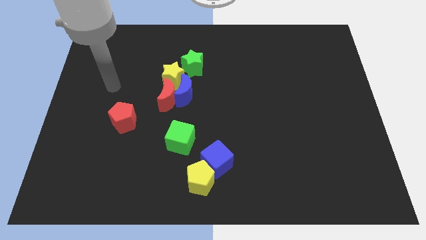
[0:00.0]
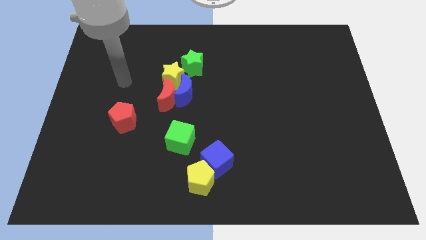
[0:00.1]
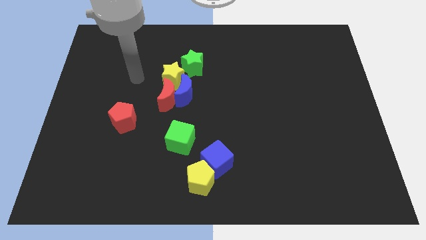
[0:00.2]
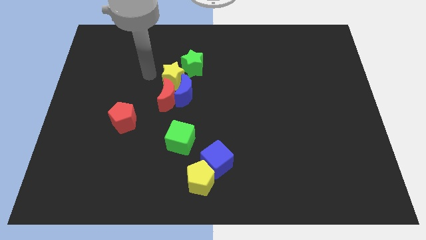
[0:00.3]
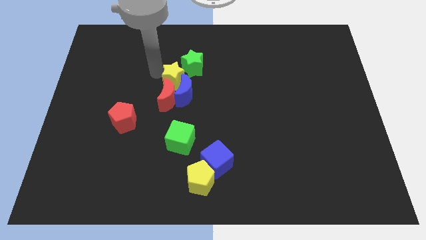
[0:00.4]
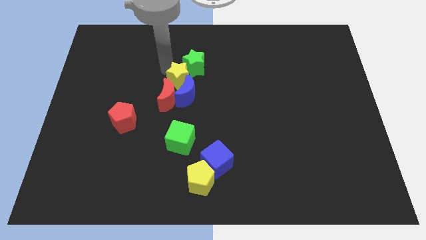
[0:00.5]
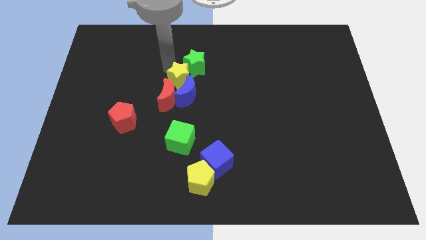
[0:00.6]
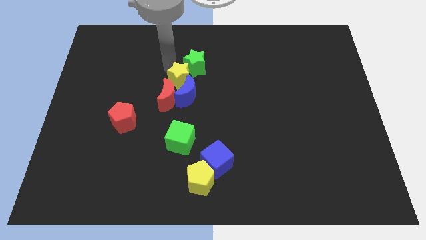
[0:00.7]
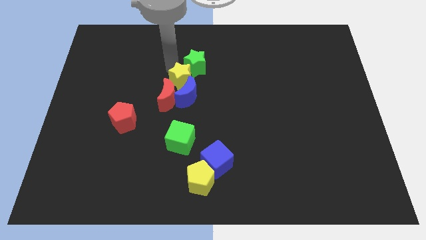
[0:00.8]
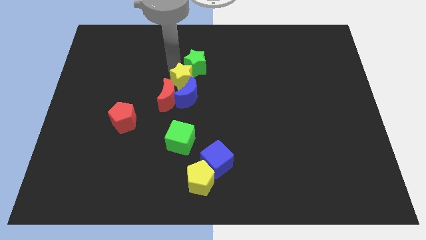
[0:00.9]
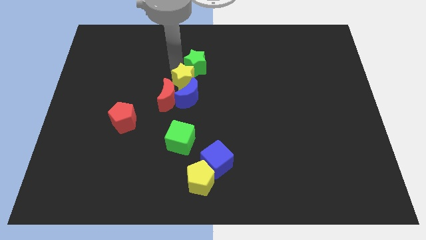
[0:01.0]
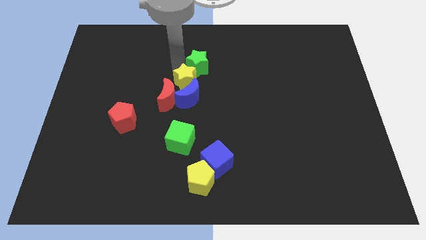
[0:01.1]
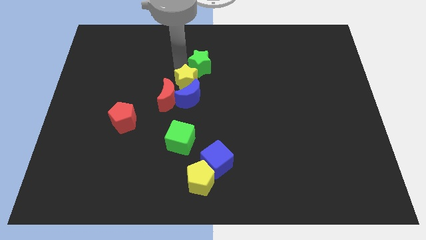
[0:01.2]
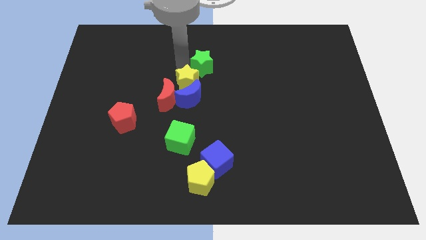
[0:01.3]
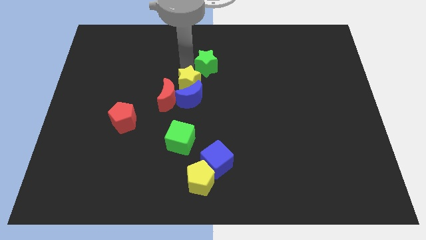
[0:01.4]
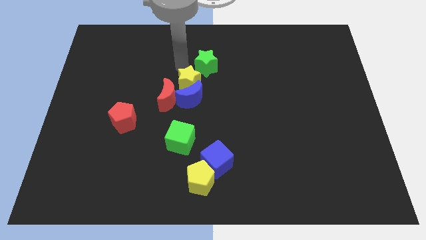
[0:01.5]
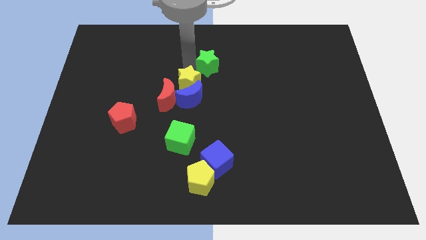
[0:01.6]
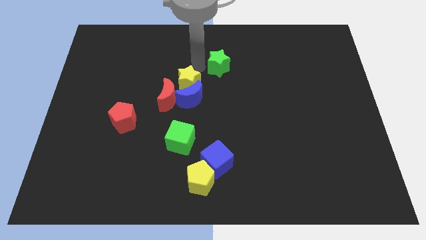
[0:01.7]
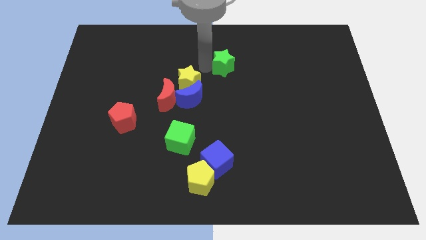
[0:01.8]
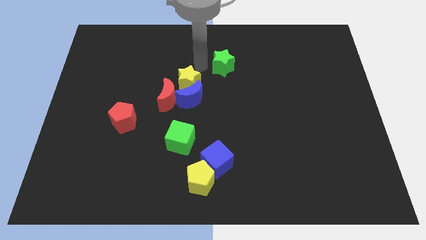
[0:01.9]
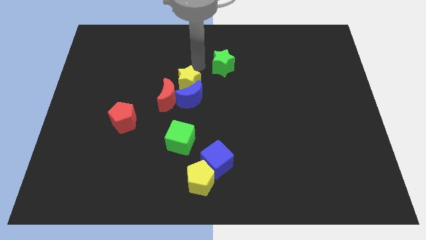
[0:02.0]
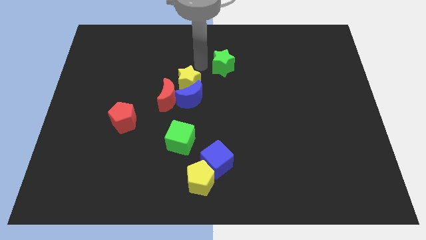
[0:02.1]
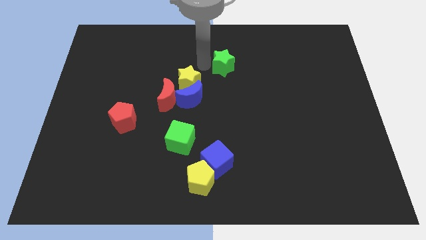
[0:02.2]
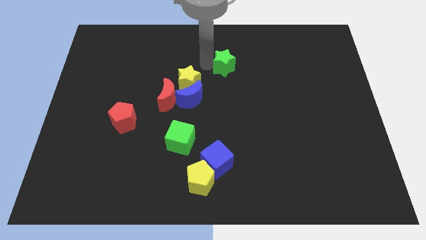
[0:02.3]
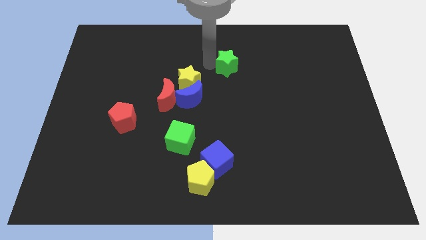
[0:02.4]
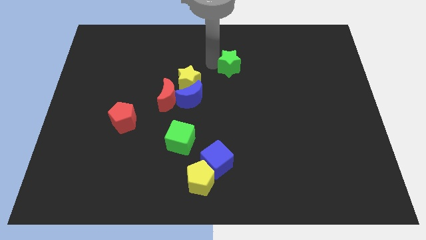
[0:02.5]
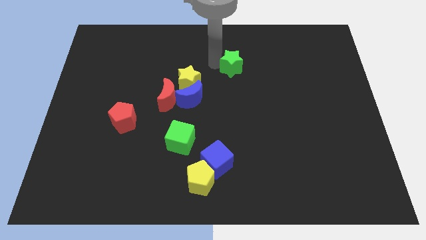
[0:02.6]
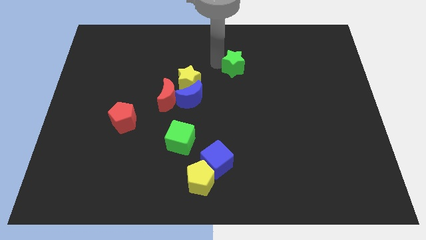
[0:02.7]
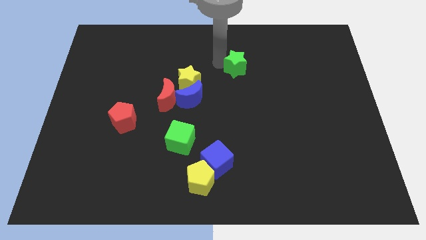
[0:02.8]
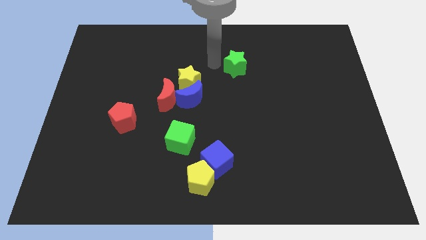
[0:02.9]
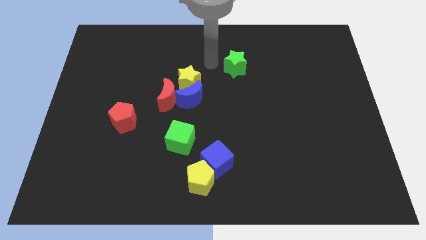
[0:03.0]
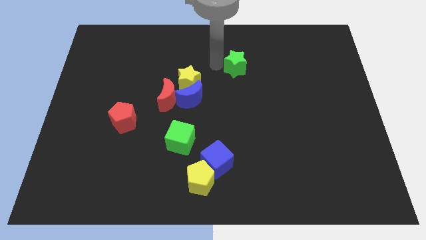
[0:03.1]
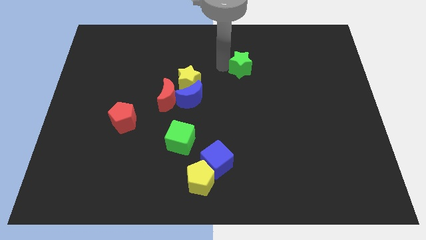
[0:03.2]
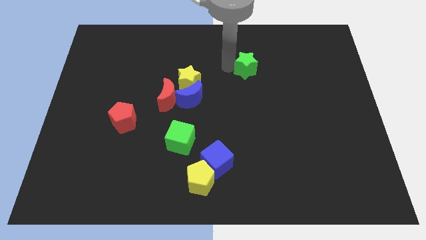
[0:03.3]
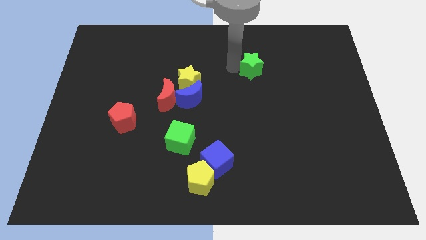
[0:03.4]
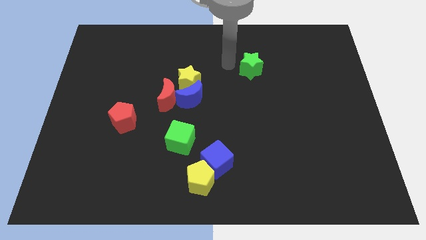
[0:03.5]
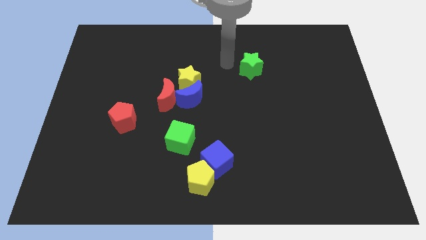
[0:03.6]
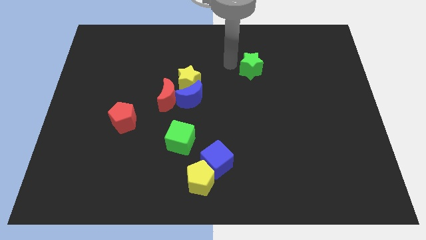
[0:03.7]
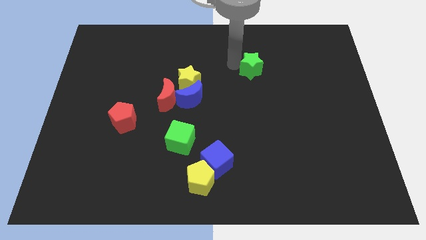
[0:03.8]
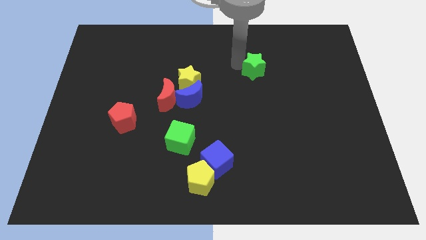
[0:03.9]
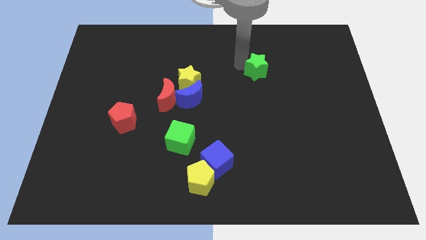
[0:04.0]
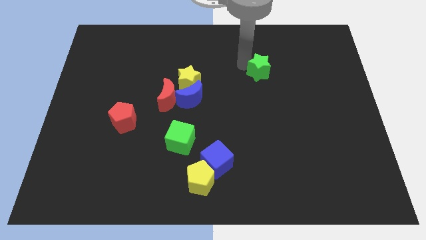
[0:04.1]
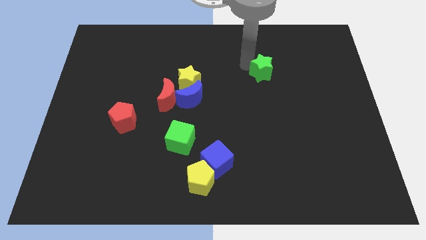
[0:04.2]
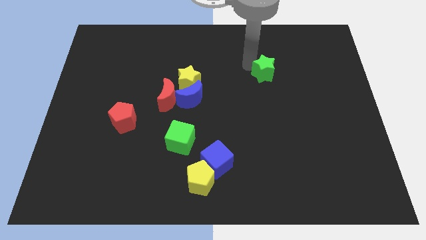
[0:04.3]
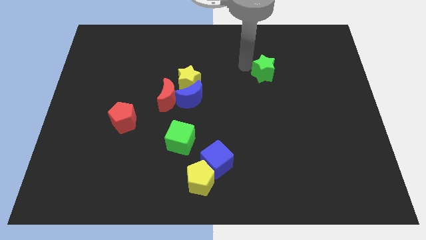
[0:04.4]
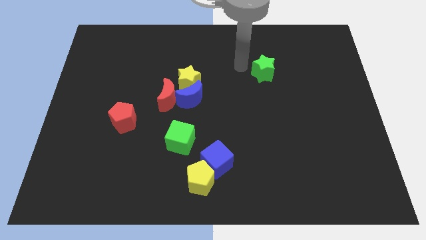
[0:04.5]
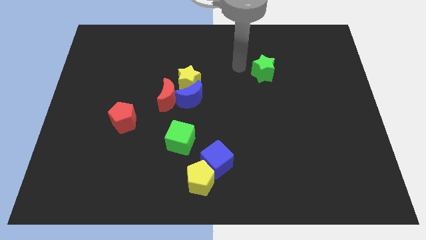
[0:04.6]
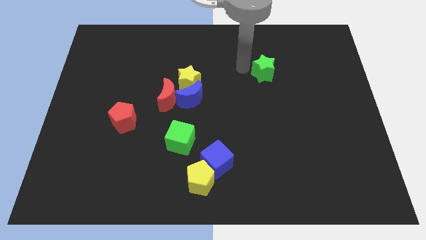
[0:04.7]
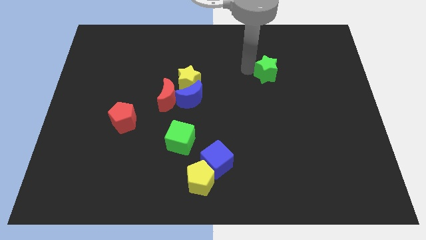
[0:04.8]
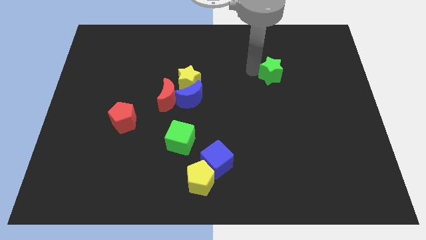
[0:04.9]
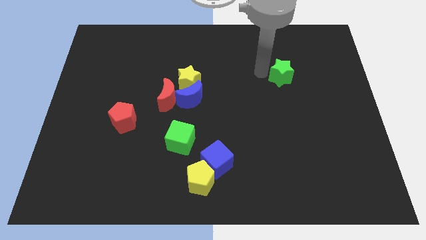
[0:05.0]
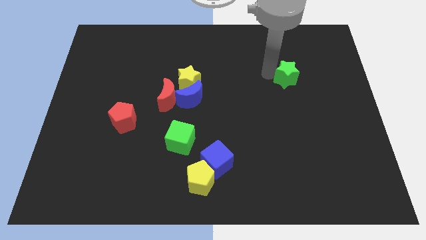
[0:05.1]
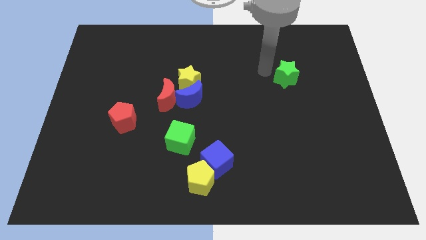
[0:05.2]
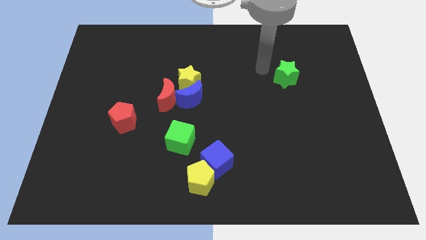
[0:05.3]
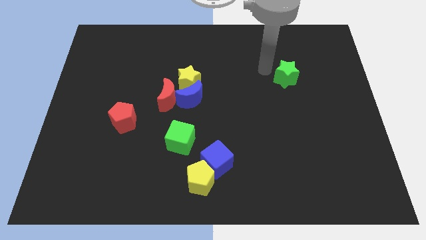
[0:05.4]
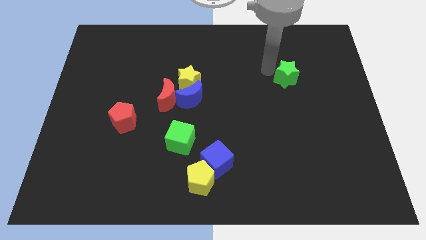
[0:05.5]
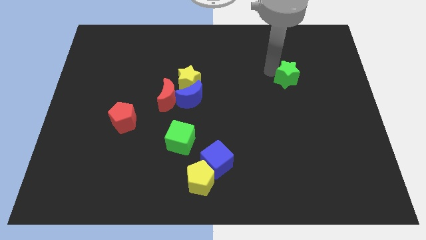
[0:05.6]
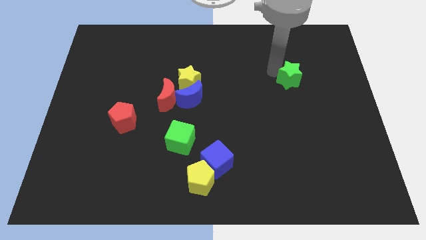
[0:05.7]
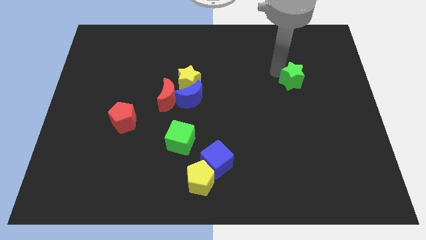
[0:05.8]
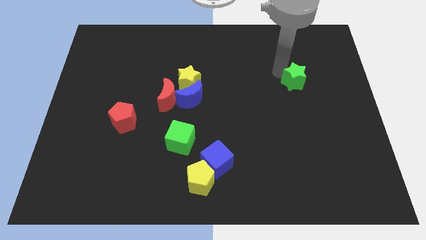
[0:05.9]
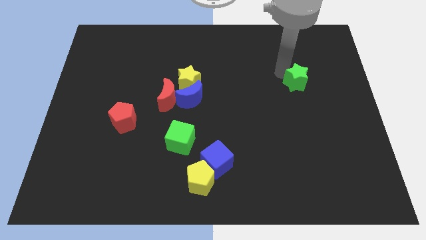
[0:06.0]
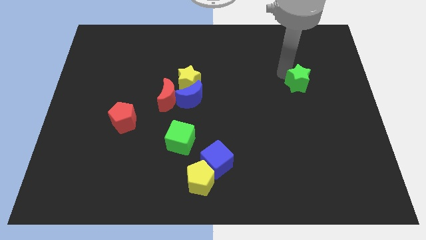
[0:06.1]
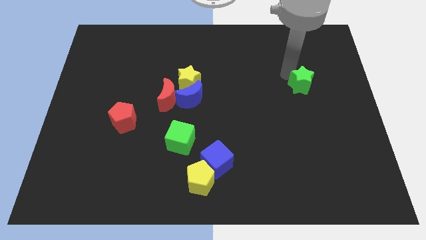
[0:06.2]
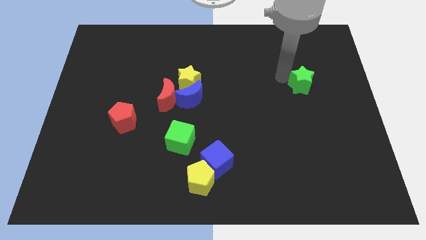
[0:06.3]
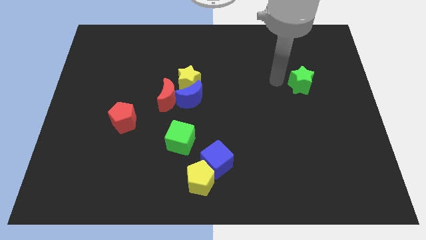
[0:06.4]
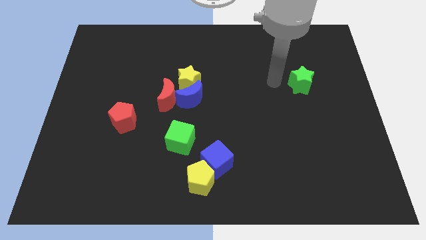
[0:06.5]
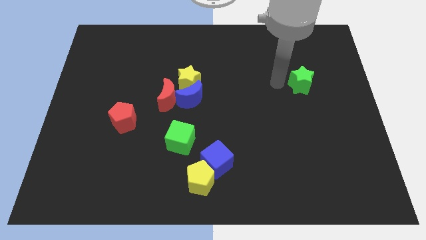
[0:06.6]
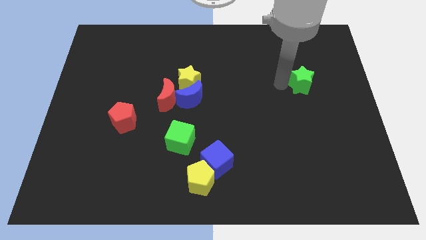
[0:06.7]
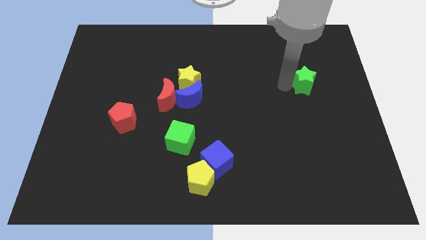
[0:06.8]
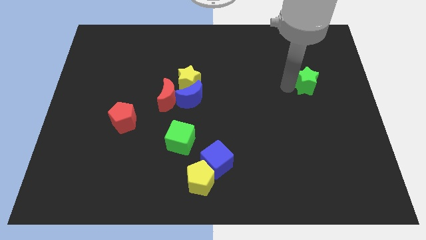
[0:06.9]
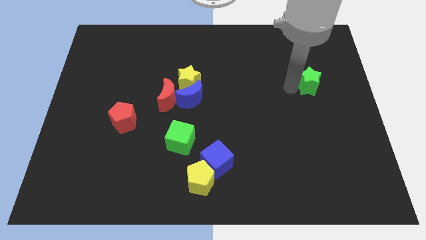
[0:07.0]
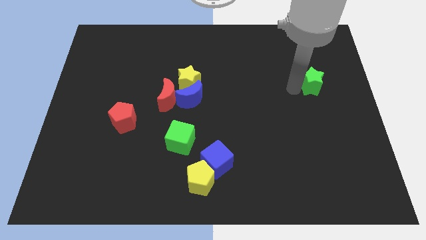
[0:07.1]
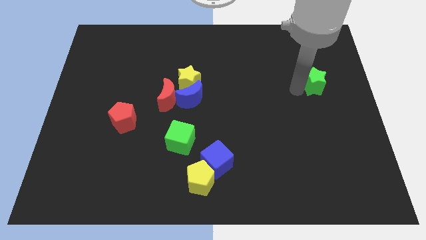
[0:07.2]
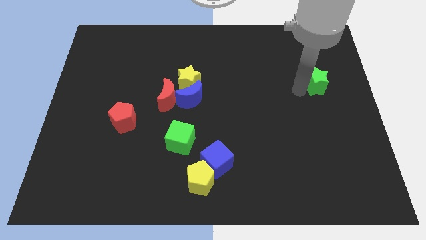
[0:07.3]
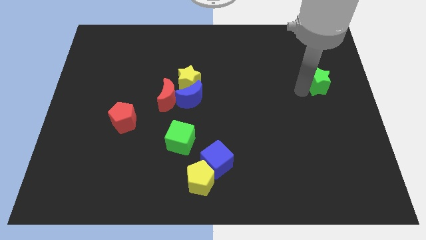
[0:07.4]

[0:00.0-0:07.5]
move the green star to the center right
